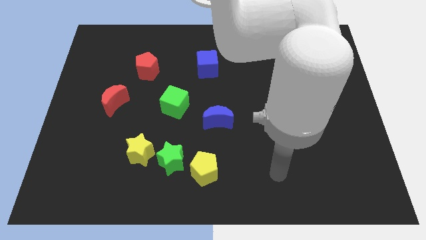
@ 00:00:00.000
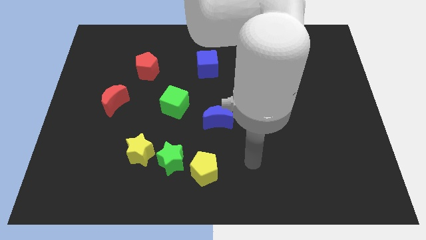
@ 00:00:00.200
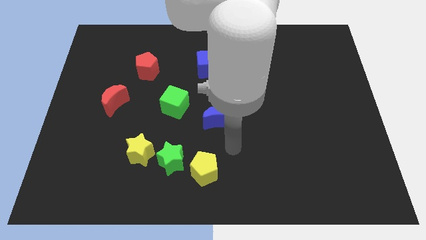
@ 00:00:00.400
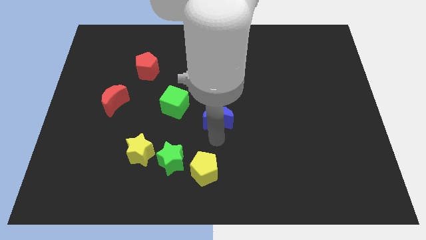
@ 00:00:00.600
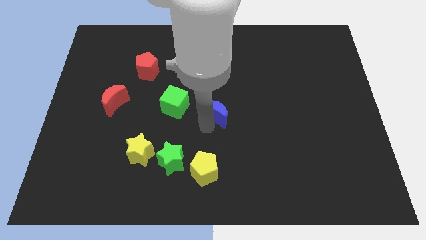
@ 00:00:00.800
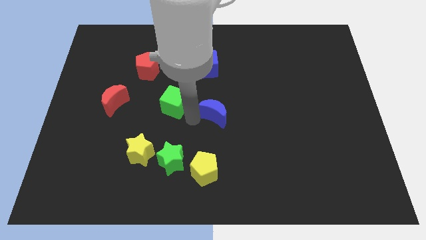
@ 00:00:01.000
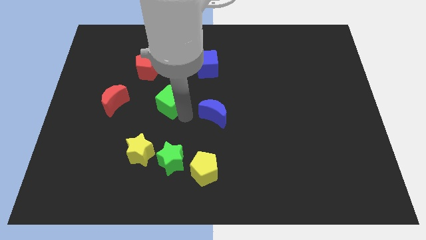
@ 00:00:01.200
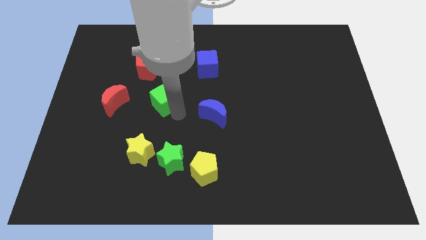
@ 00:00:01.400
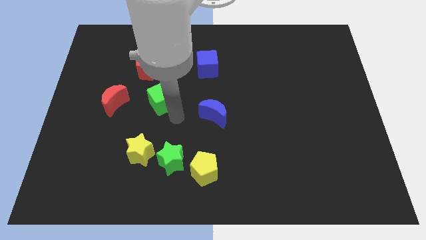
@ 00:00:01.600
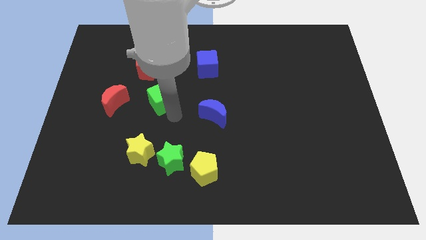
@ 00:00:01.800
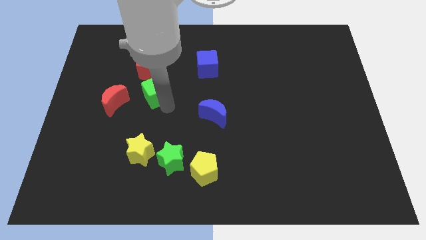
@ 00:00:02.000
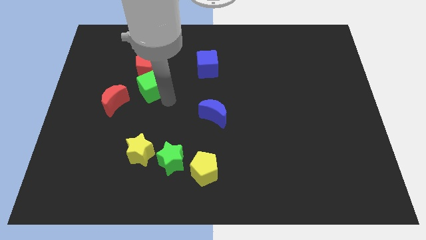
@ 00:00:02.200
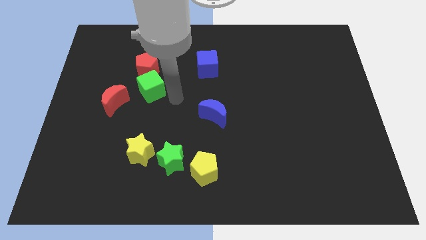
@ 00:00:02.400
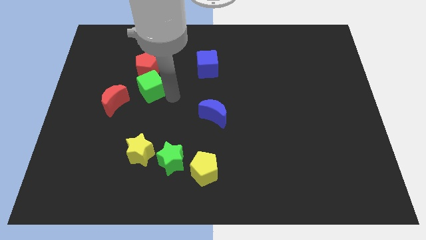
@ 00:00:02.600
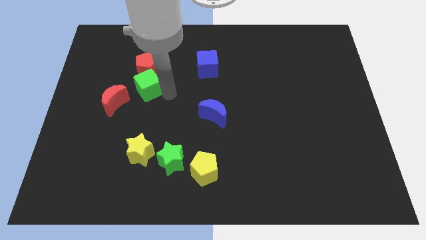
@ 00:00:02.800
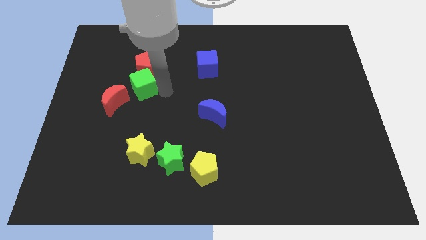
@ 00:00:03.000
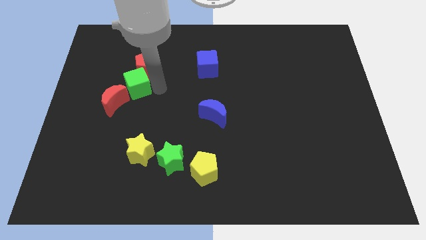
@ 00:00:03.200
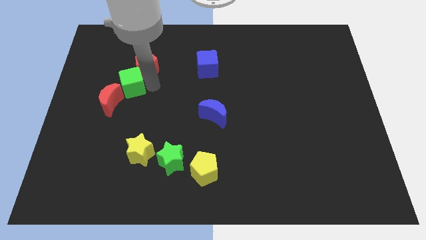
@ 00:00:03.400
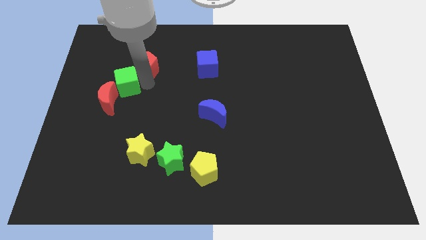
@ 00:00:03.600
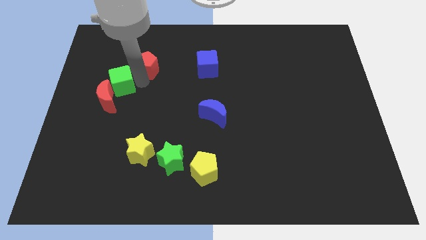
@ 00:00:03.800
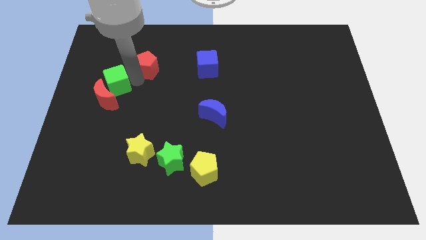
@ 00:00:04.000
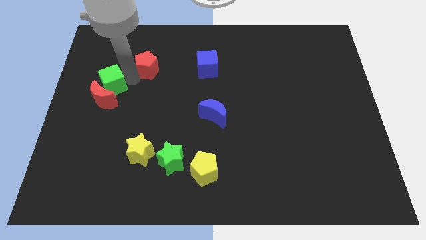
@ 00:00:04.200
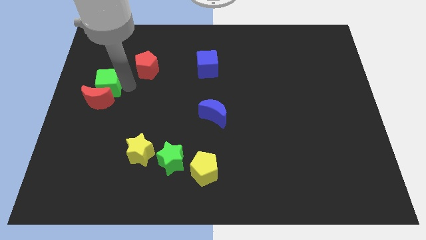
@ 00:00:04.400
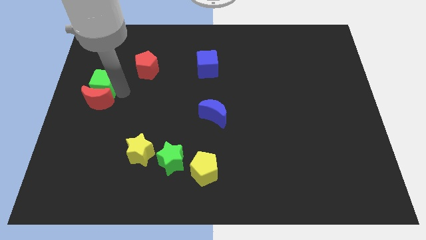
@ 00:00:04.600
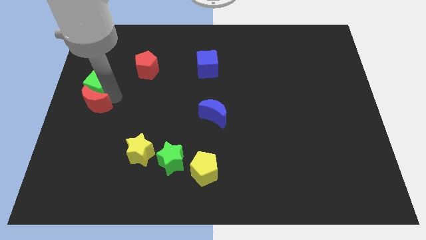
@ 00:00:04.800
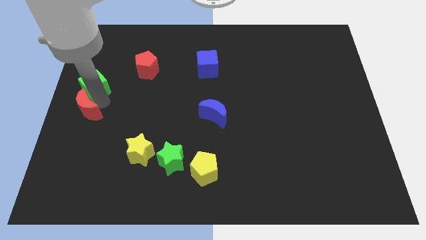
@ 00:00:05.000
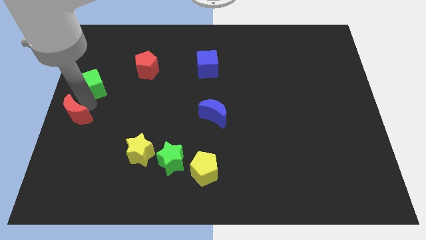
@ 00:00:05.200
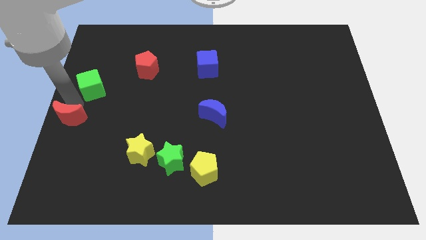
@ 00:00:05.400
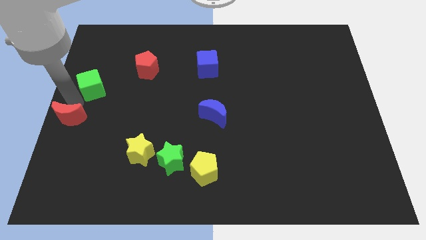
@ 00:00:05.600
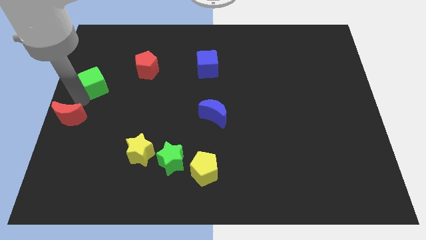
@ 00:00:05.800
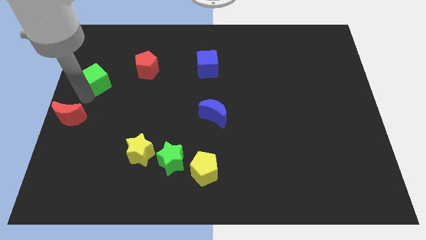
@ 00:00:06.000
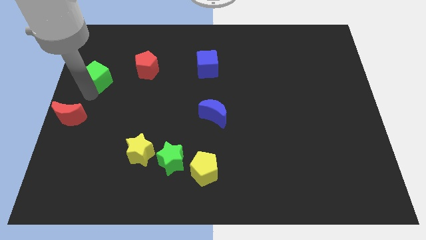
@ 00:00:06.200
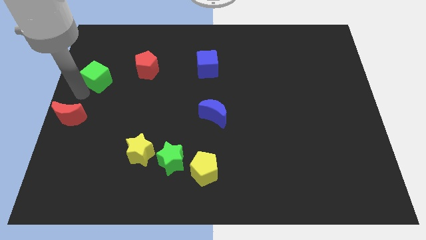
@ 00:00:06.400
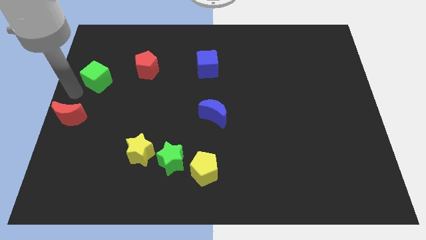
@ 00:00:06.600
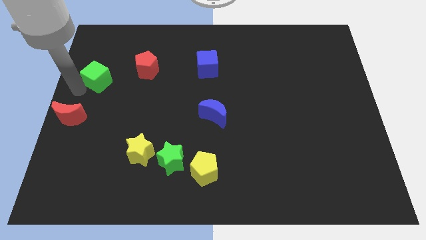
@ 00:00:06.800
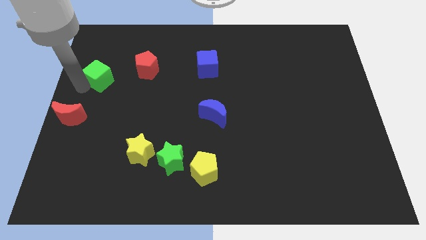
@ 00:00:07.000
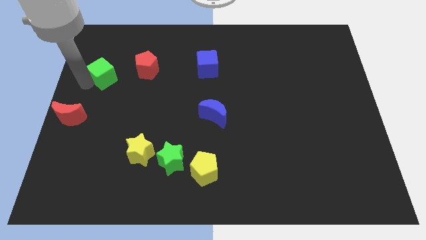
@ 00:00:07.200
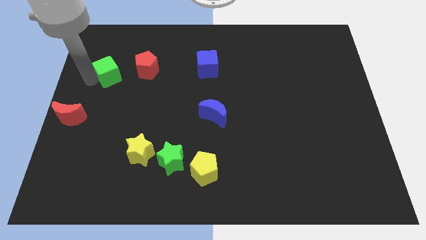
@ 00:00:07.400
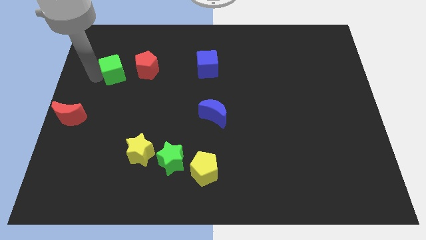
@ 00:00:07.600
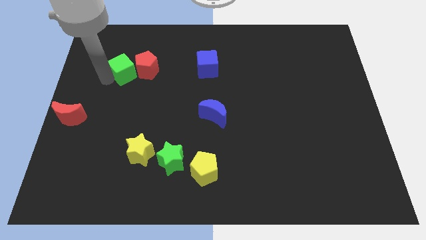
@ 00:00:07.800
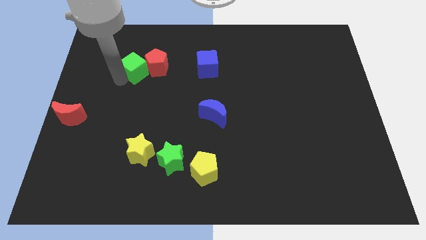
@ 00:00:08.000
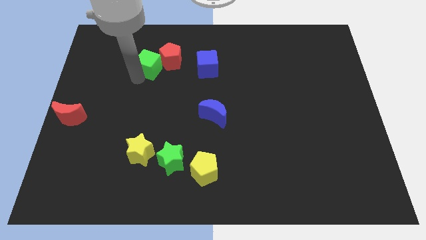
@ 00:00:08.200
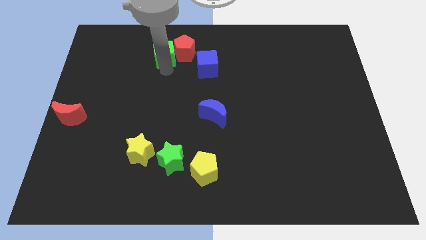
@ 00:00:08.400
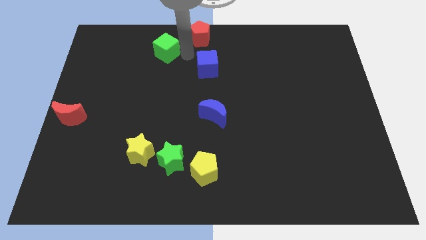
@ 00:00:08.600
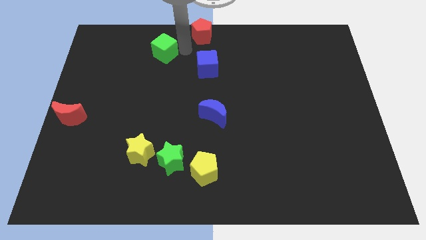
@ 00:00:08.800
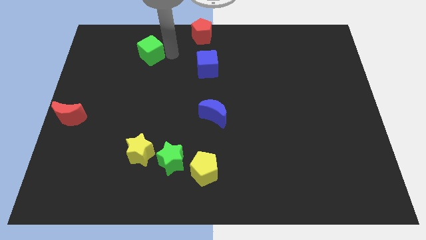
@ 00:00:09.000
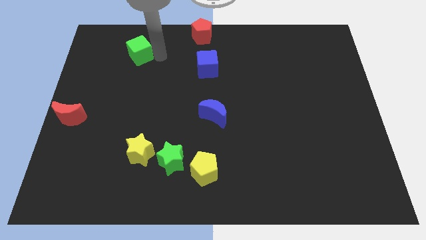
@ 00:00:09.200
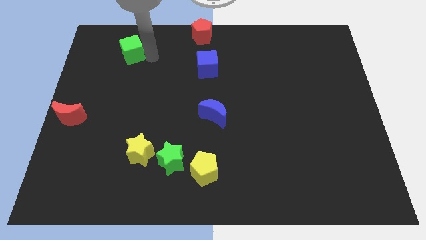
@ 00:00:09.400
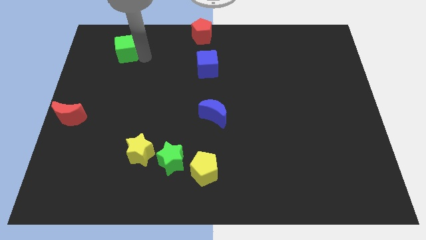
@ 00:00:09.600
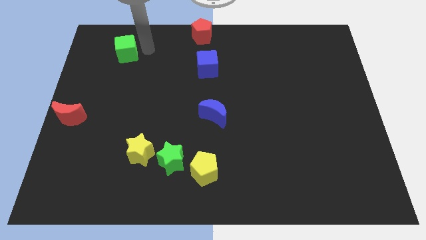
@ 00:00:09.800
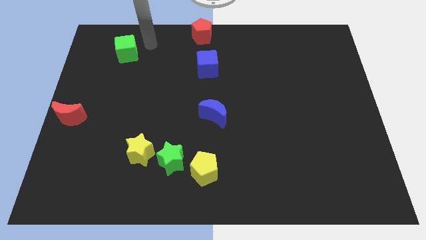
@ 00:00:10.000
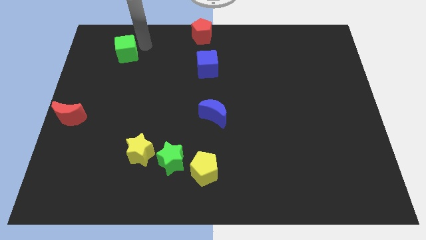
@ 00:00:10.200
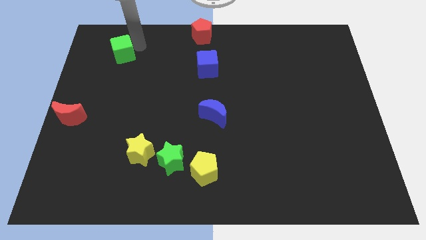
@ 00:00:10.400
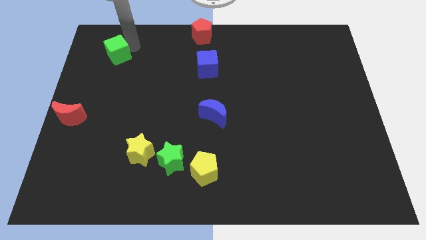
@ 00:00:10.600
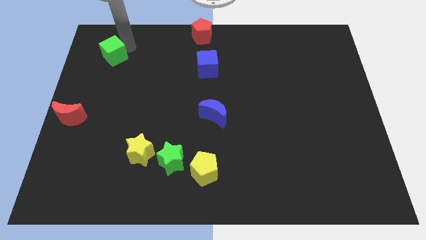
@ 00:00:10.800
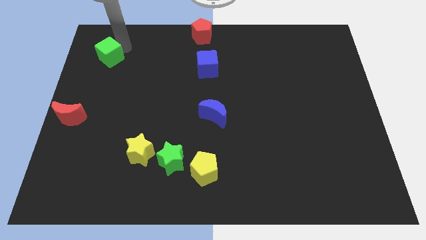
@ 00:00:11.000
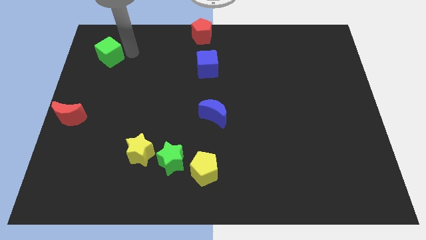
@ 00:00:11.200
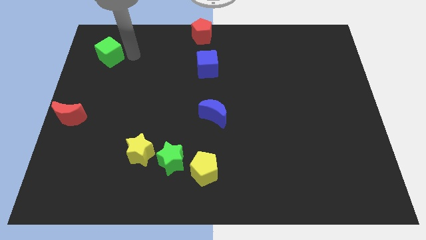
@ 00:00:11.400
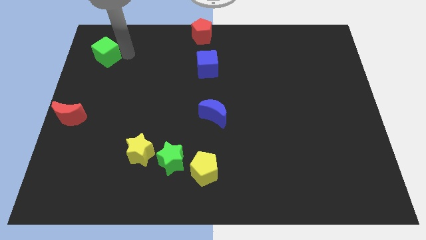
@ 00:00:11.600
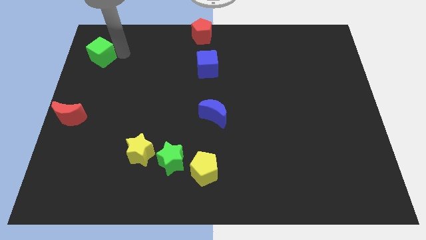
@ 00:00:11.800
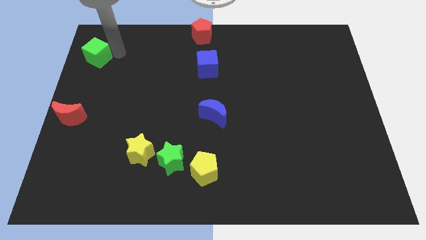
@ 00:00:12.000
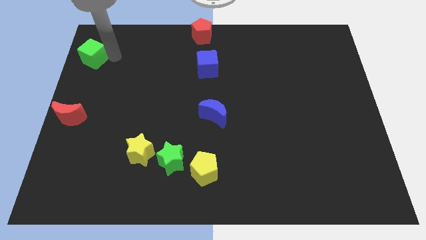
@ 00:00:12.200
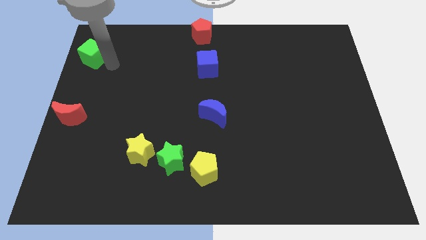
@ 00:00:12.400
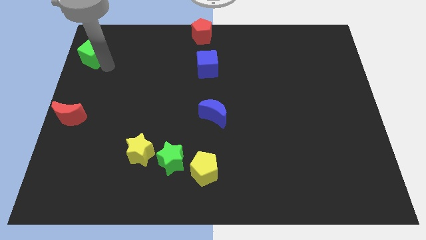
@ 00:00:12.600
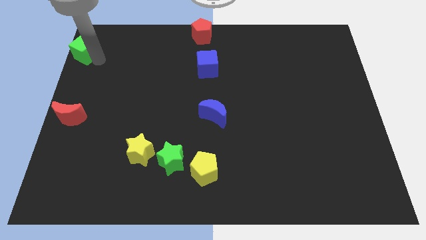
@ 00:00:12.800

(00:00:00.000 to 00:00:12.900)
put the green cube to the top left
